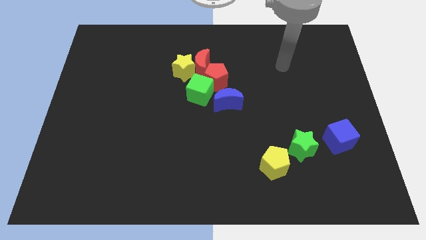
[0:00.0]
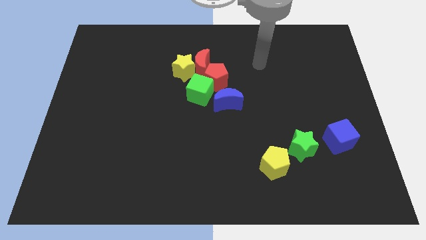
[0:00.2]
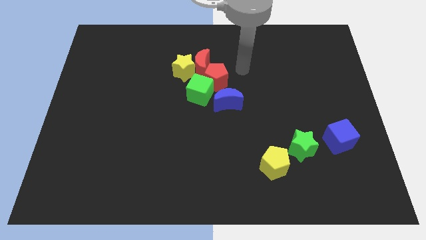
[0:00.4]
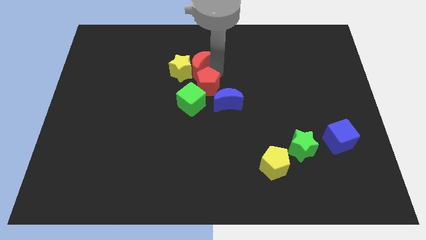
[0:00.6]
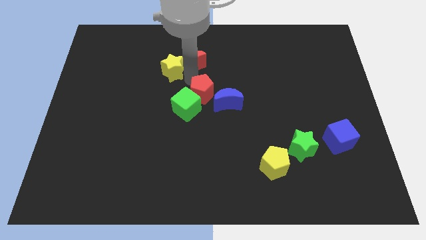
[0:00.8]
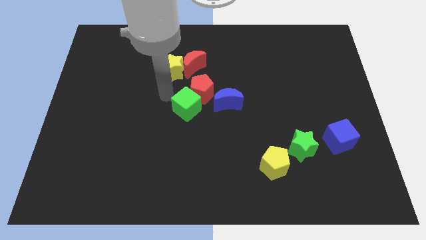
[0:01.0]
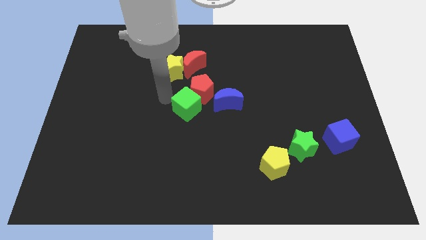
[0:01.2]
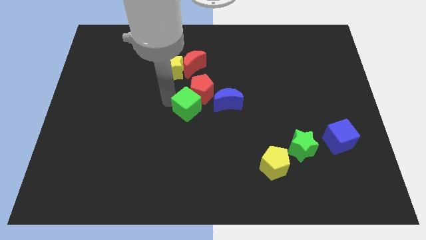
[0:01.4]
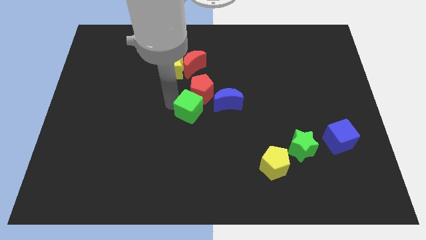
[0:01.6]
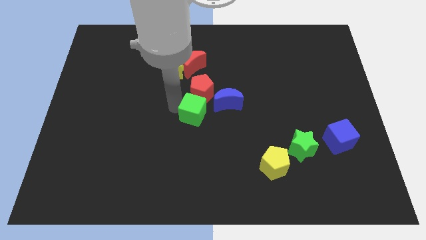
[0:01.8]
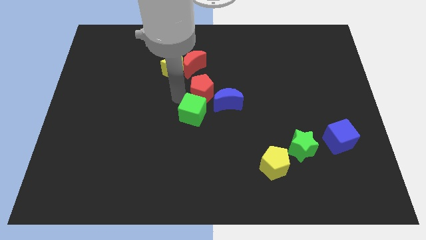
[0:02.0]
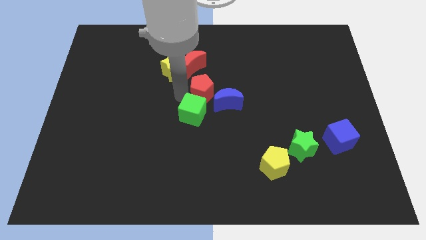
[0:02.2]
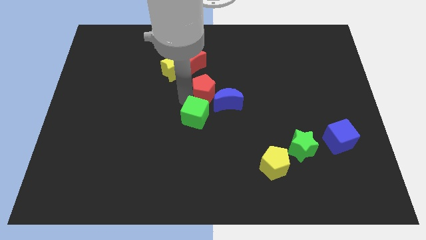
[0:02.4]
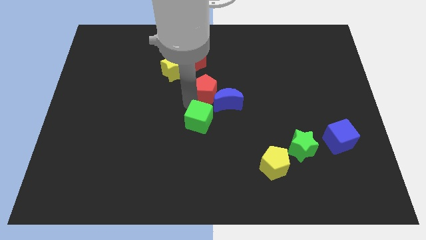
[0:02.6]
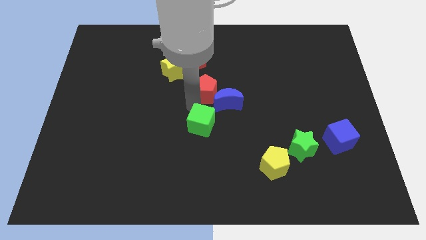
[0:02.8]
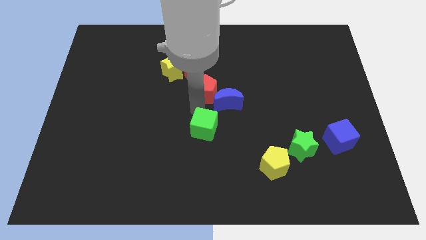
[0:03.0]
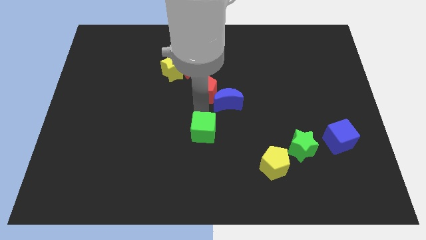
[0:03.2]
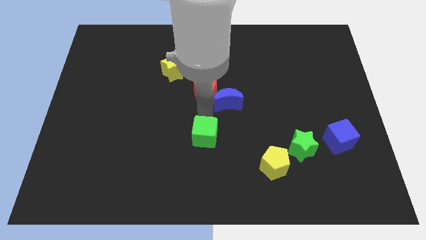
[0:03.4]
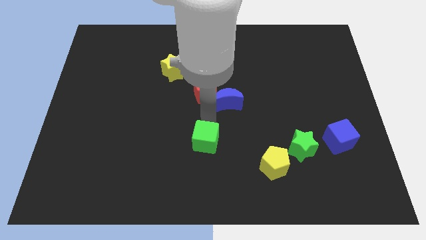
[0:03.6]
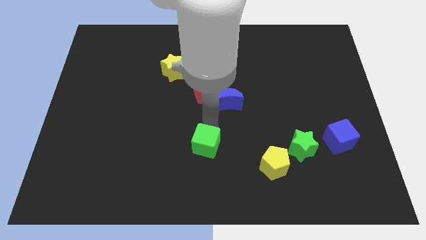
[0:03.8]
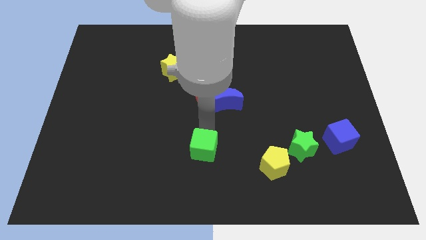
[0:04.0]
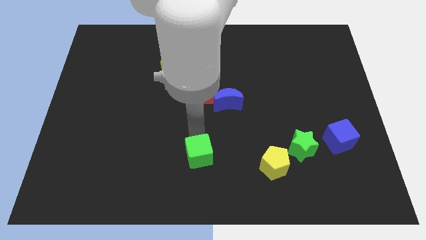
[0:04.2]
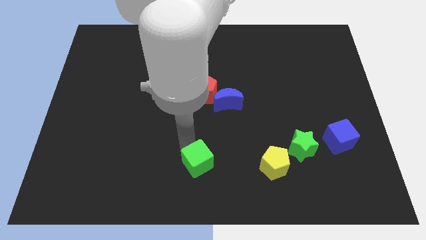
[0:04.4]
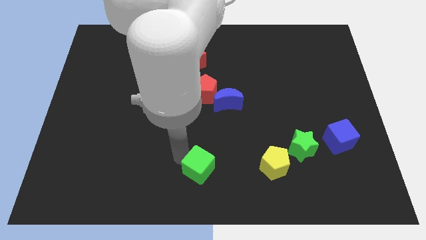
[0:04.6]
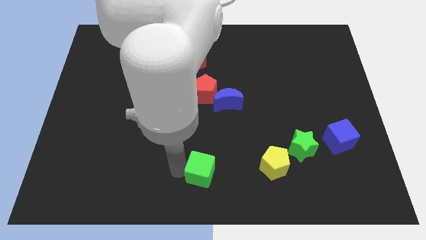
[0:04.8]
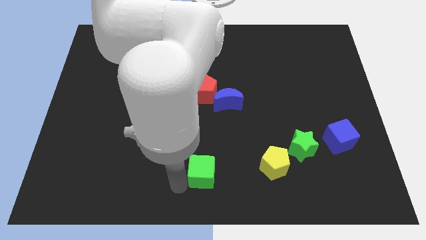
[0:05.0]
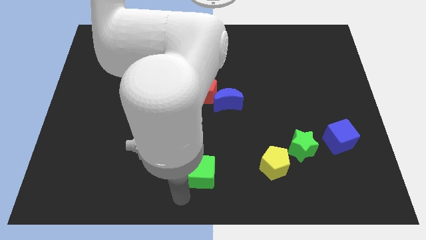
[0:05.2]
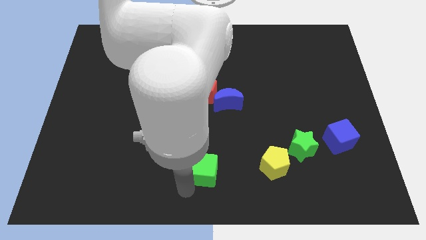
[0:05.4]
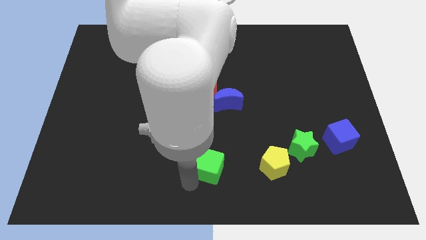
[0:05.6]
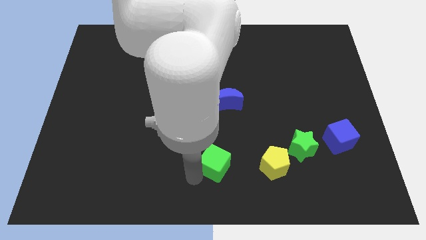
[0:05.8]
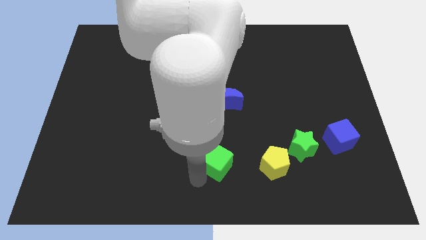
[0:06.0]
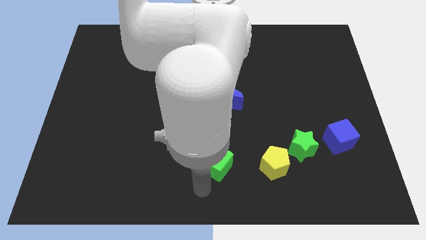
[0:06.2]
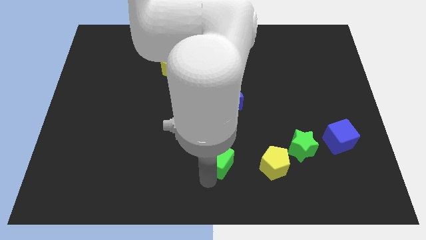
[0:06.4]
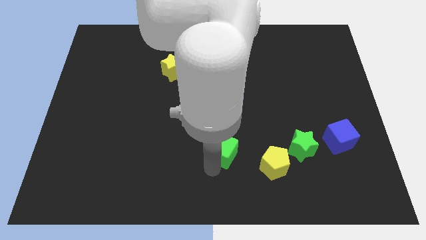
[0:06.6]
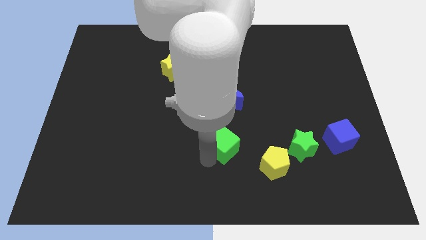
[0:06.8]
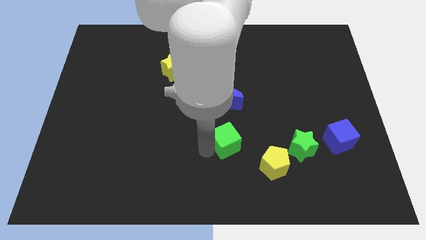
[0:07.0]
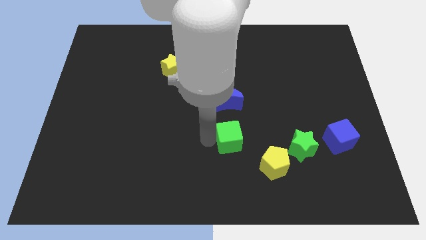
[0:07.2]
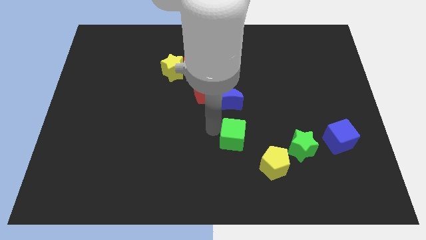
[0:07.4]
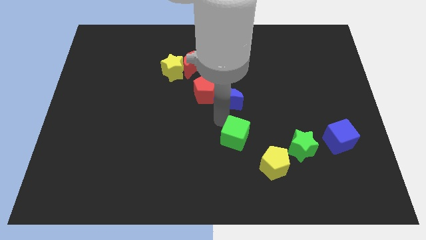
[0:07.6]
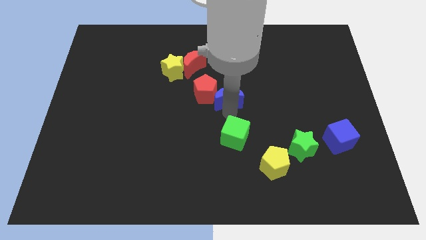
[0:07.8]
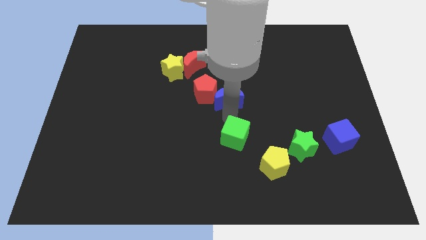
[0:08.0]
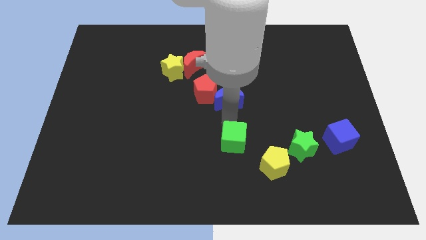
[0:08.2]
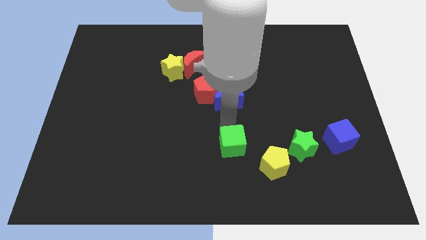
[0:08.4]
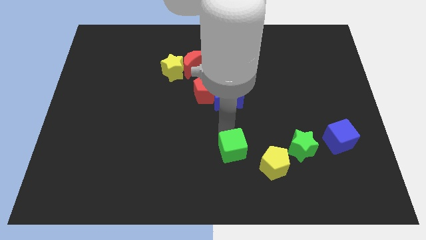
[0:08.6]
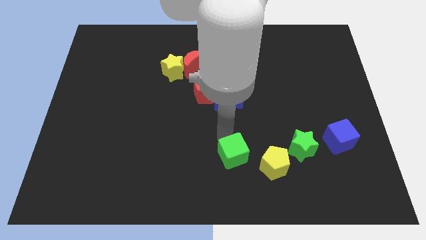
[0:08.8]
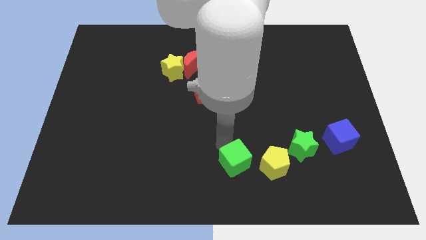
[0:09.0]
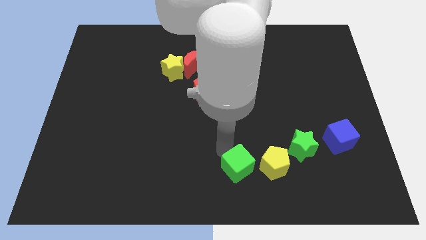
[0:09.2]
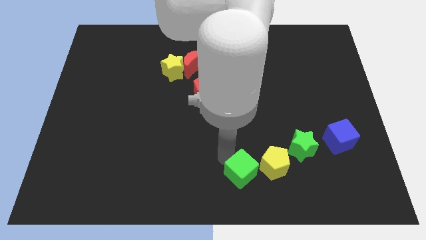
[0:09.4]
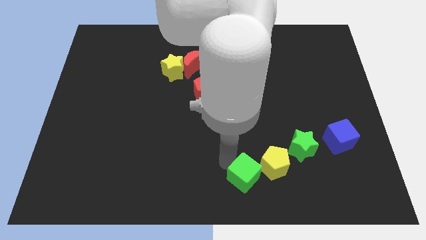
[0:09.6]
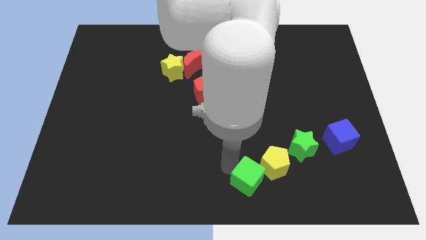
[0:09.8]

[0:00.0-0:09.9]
move the green cube downwards and then right

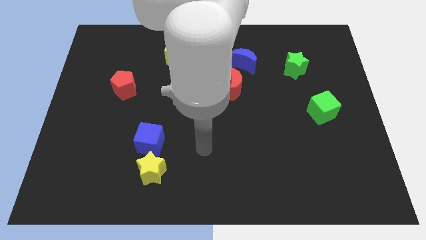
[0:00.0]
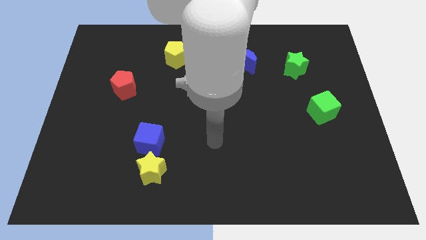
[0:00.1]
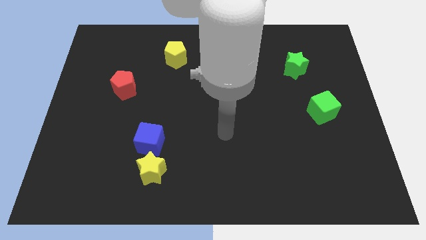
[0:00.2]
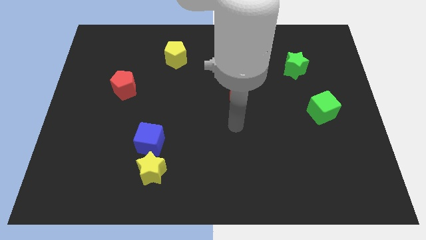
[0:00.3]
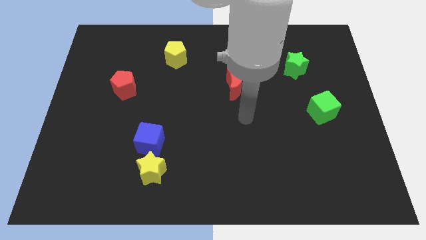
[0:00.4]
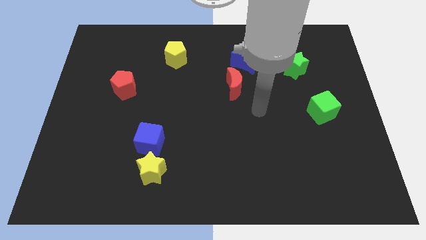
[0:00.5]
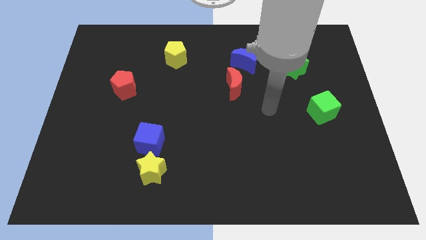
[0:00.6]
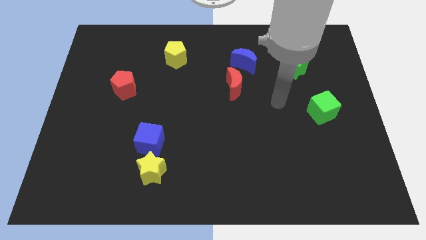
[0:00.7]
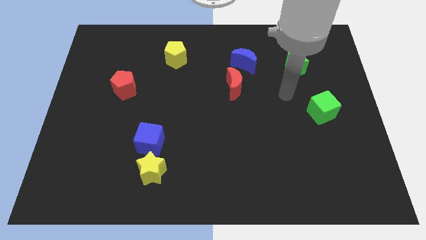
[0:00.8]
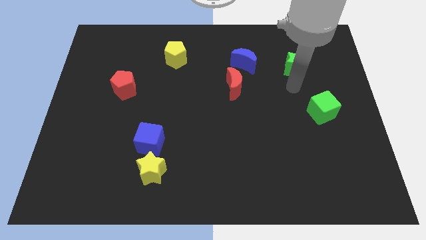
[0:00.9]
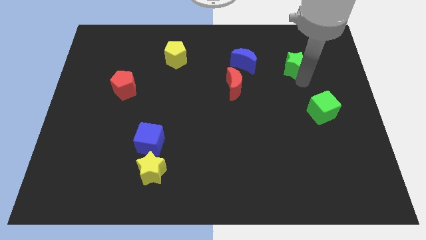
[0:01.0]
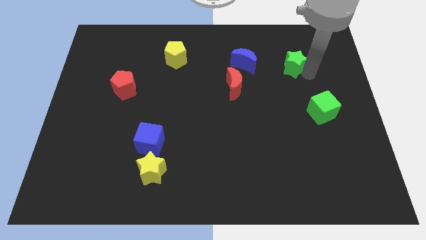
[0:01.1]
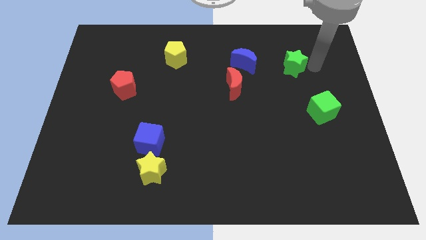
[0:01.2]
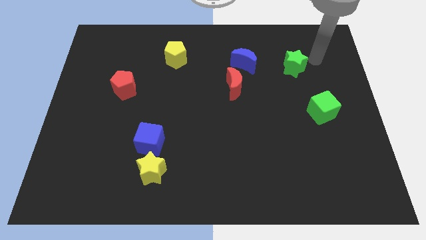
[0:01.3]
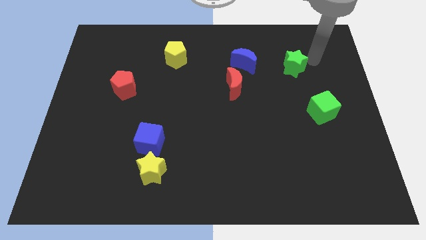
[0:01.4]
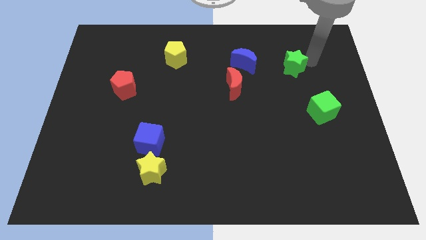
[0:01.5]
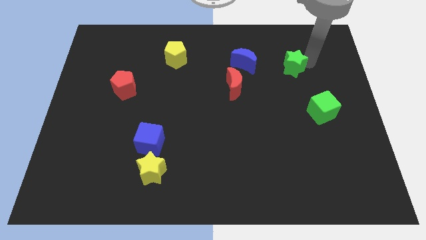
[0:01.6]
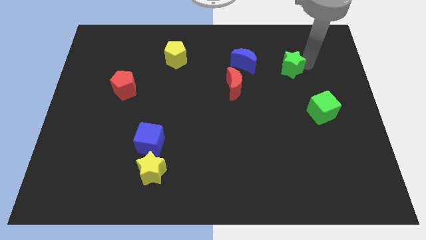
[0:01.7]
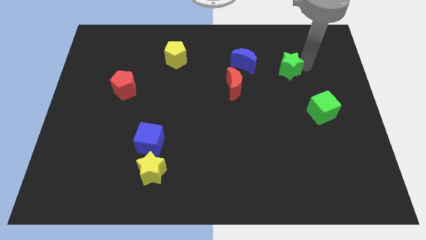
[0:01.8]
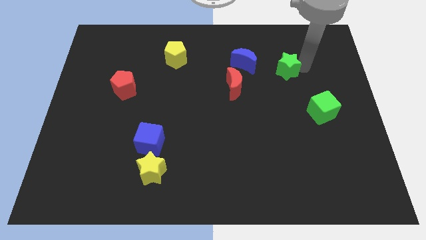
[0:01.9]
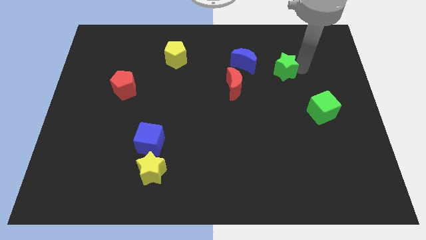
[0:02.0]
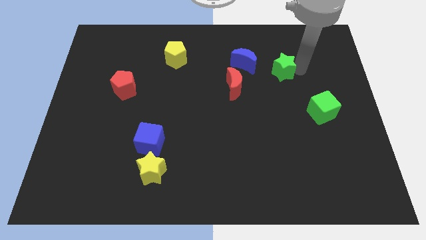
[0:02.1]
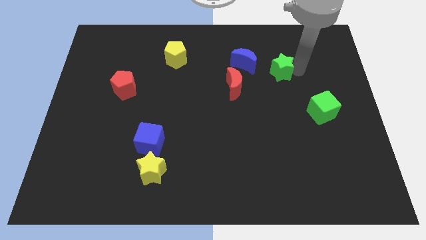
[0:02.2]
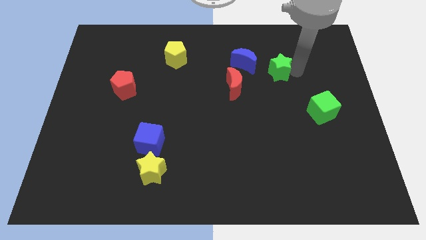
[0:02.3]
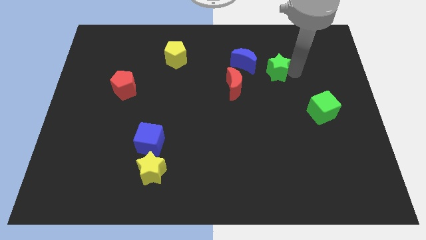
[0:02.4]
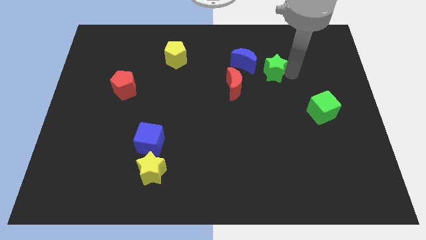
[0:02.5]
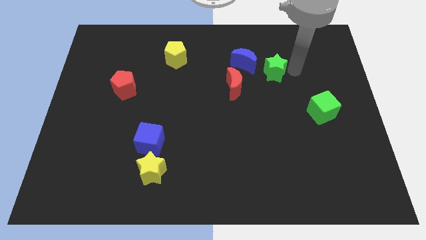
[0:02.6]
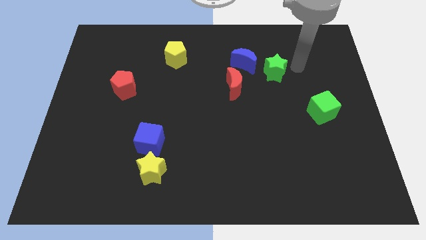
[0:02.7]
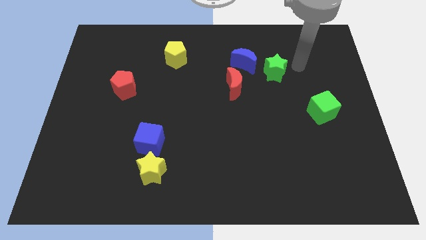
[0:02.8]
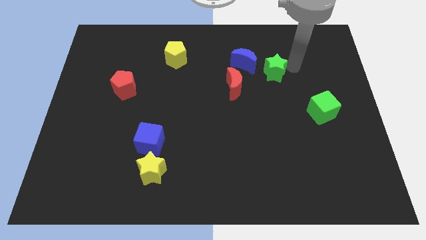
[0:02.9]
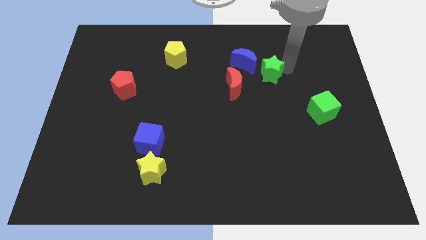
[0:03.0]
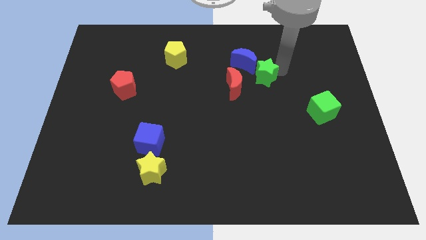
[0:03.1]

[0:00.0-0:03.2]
slightly move the green star to the left
